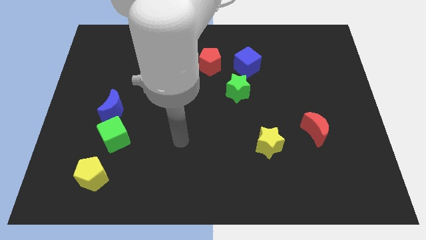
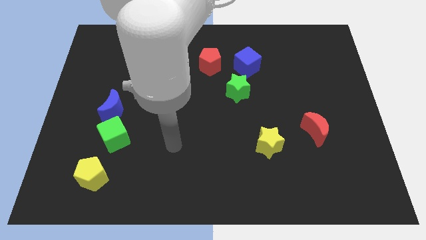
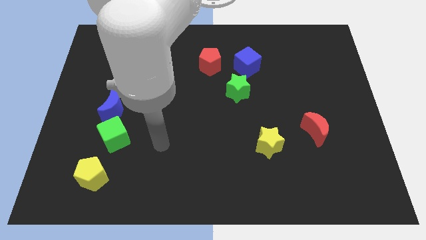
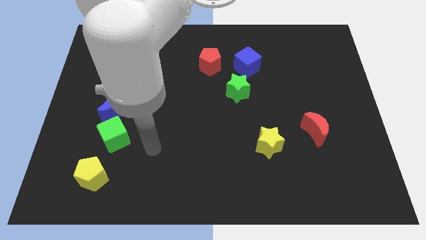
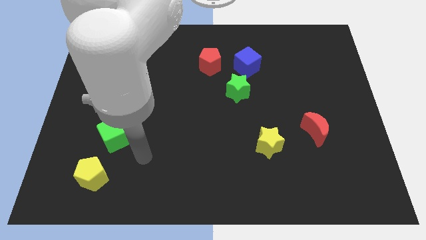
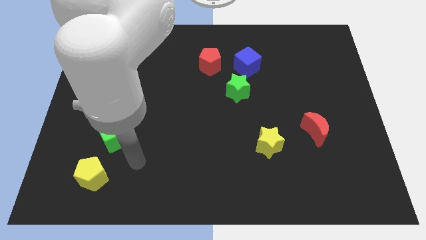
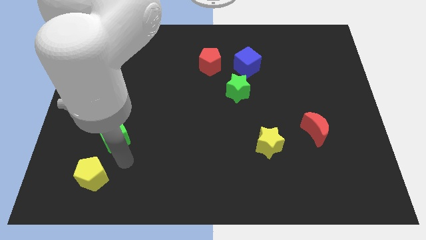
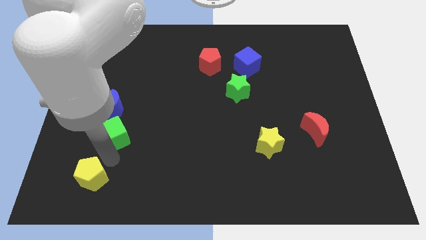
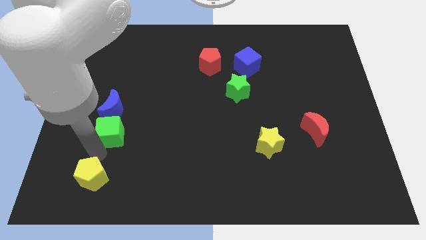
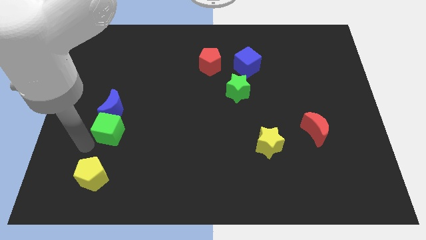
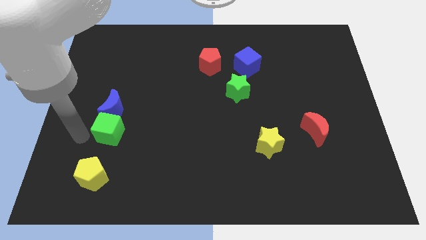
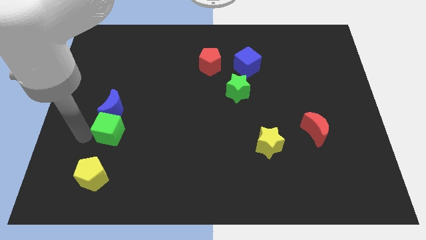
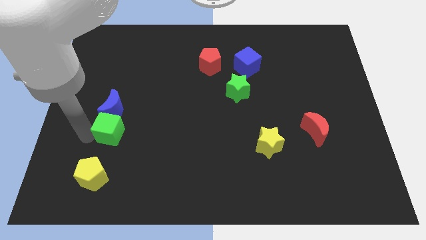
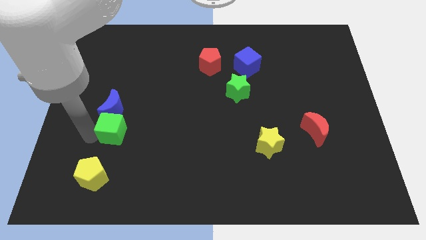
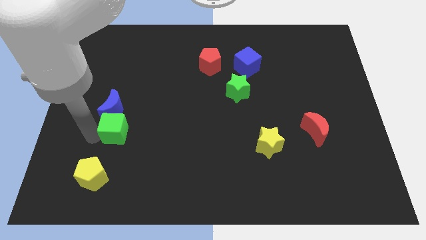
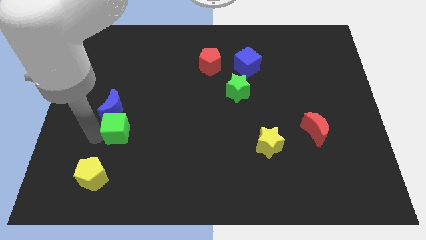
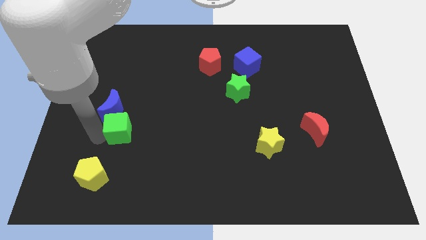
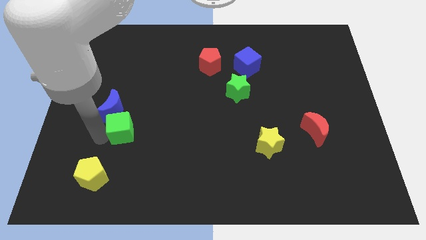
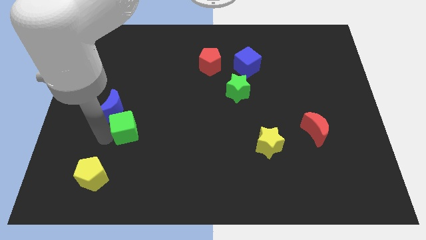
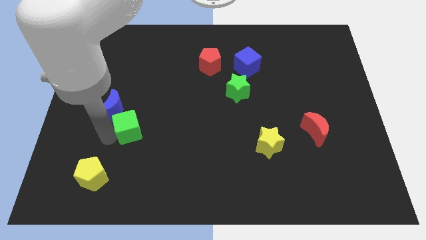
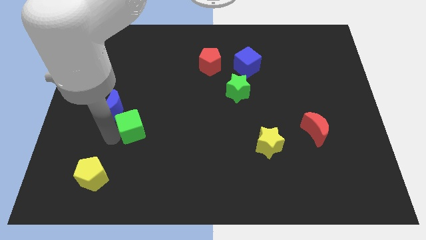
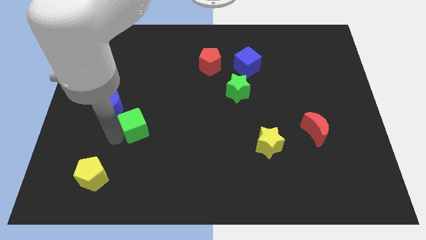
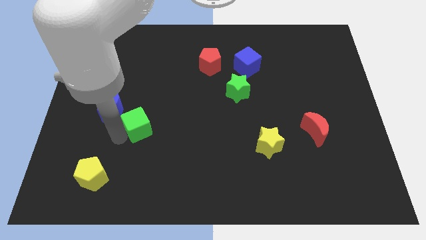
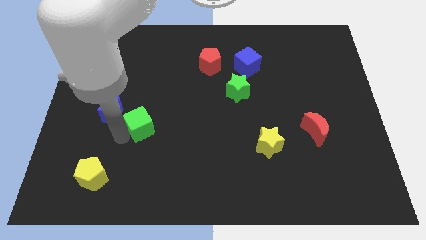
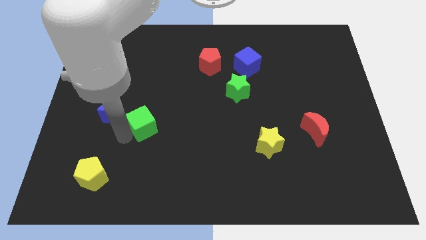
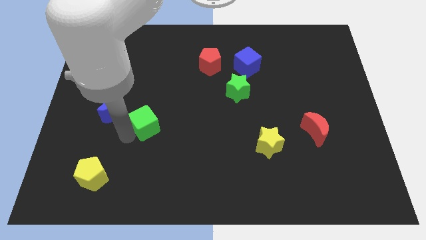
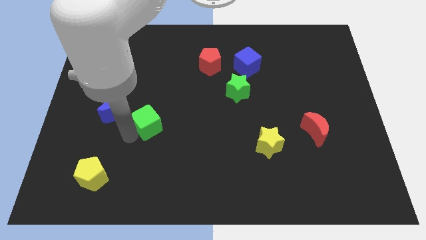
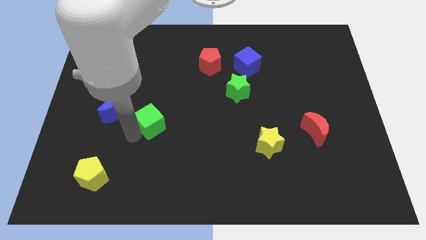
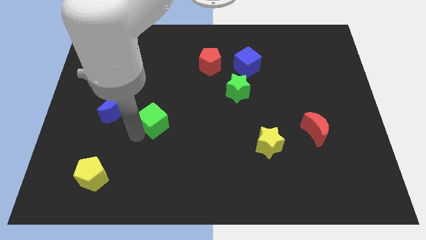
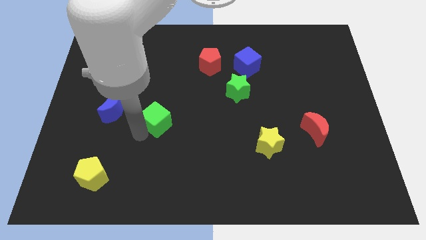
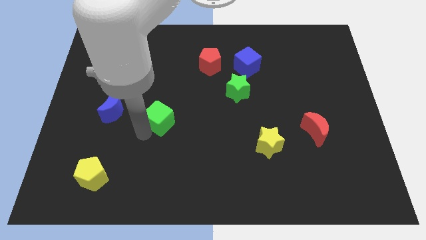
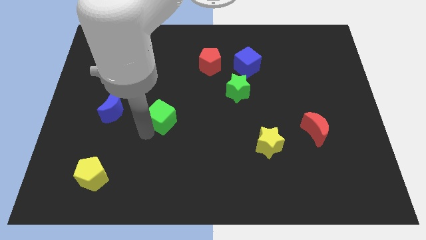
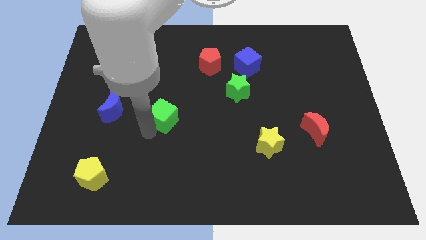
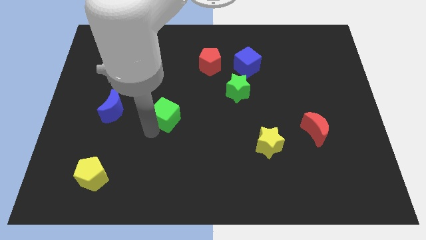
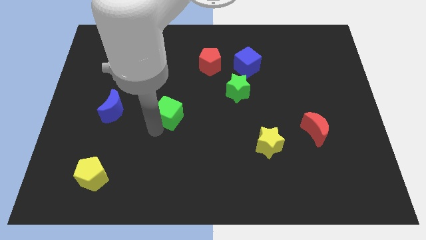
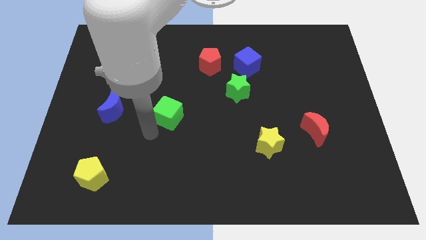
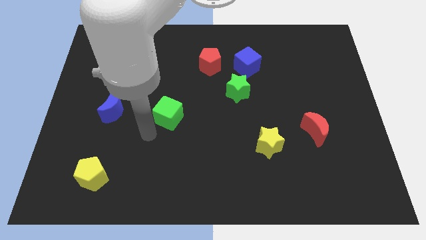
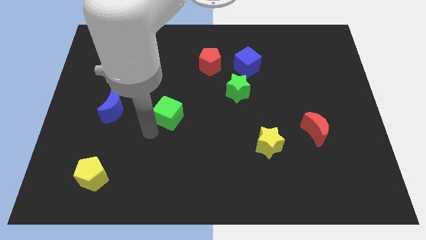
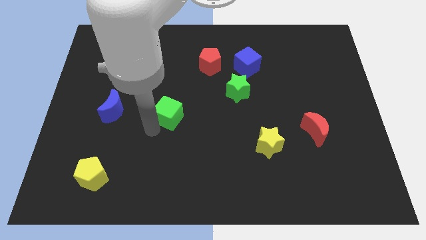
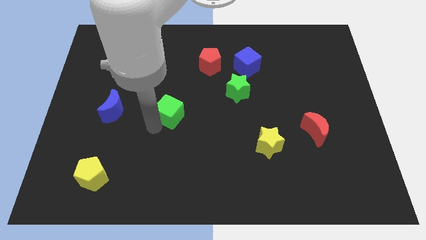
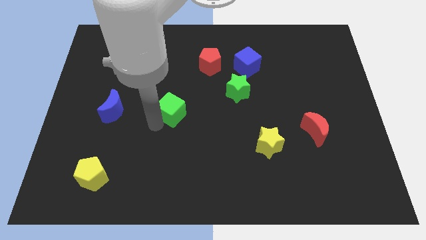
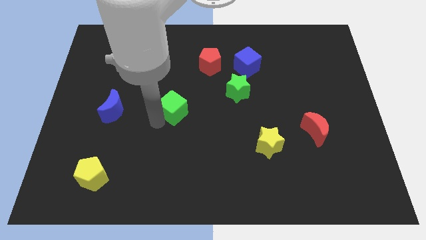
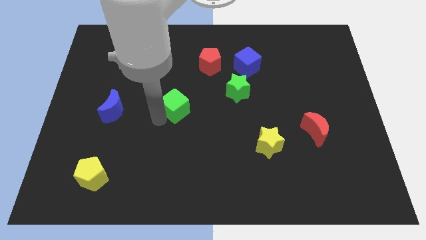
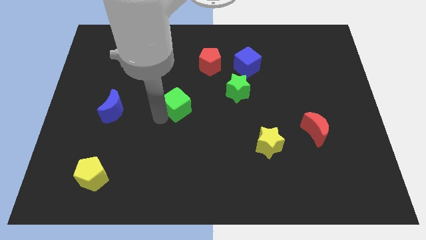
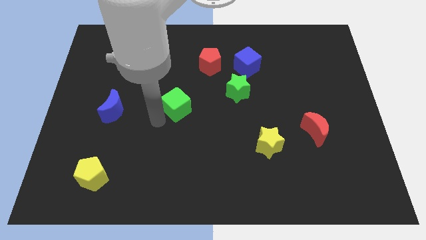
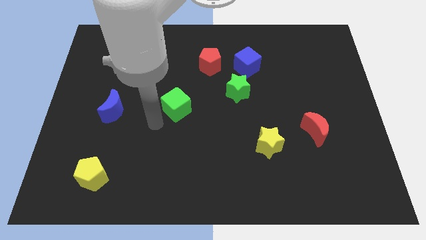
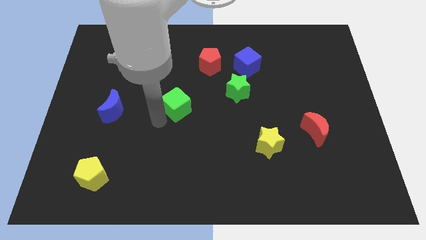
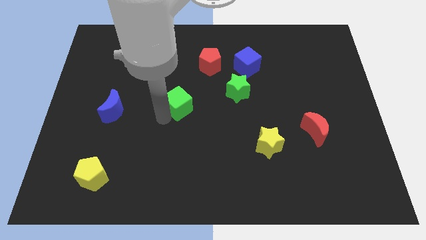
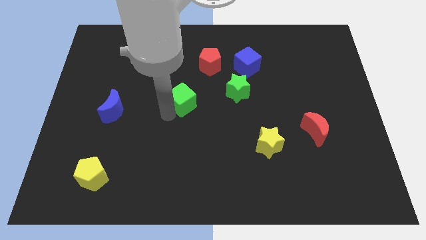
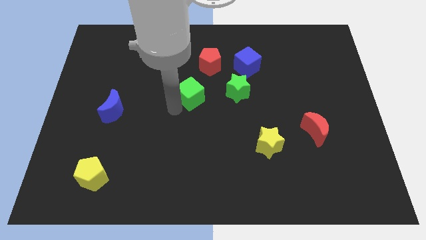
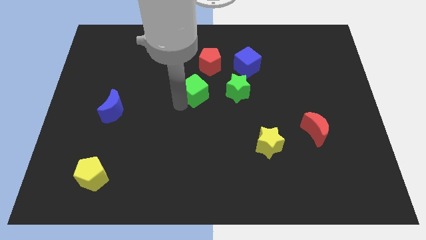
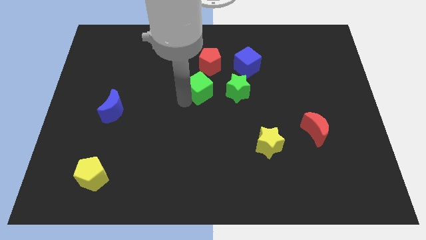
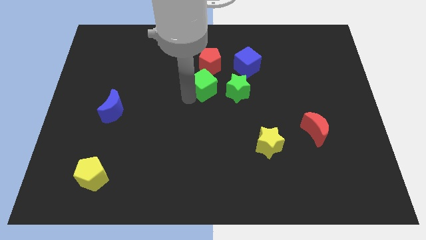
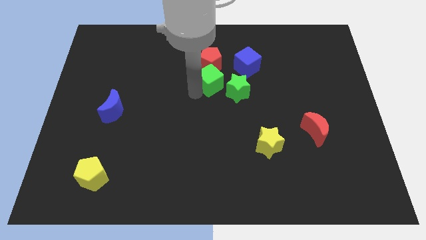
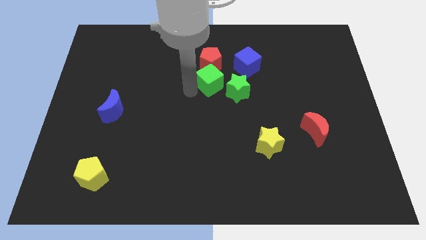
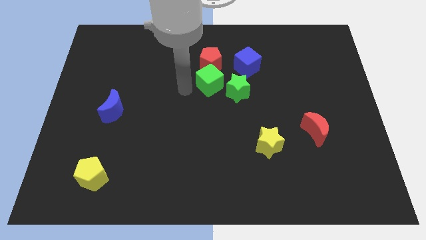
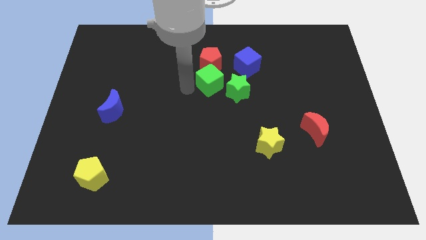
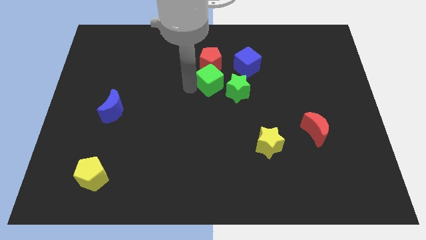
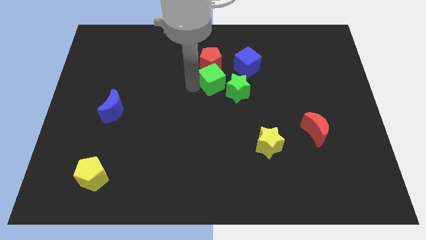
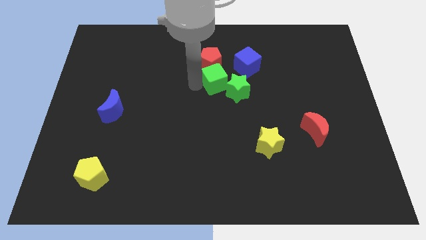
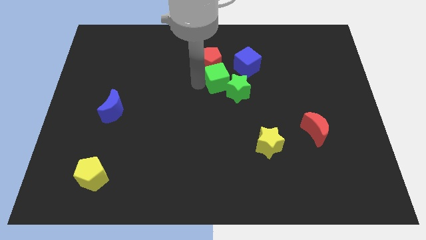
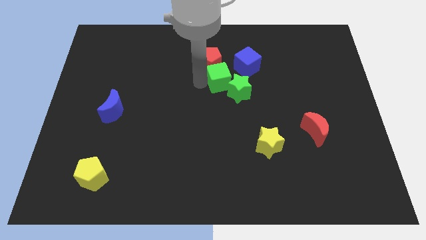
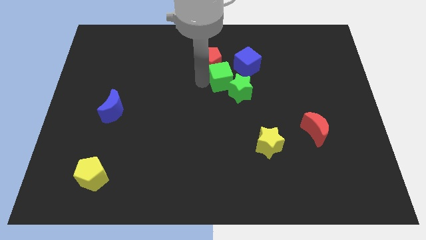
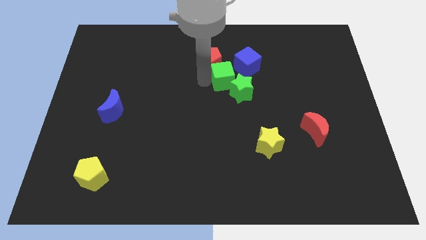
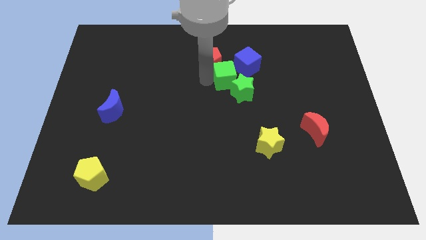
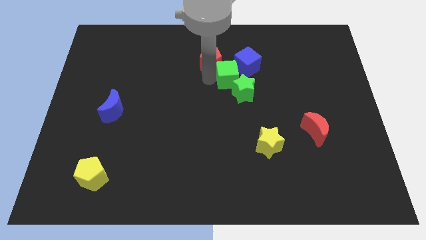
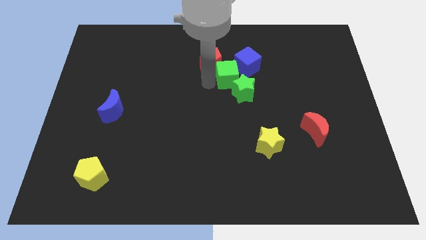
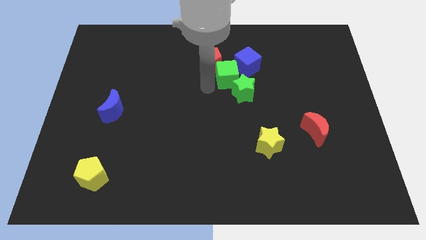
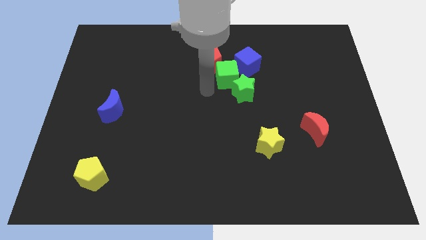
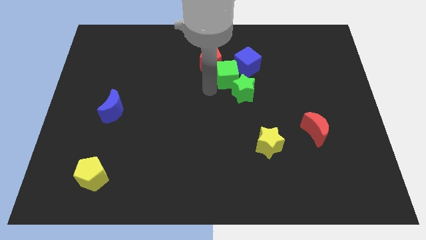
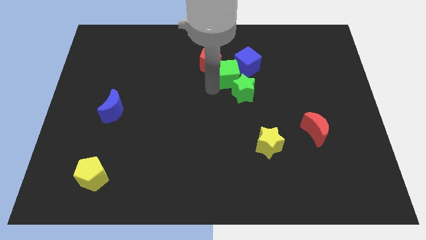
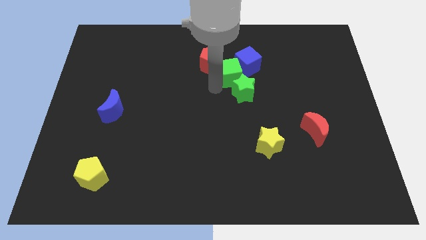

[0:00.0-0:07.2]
move the green cube to the blue cube
